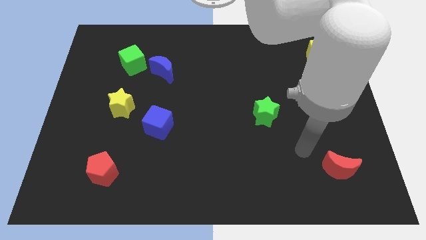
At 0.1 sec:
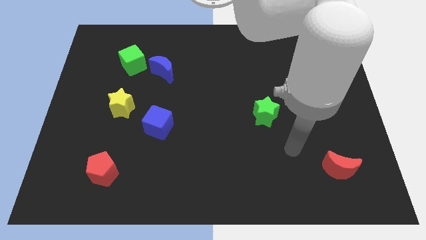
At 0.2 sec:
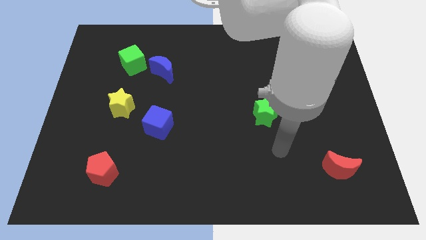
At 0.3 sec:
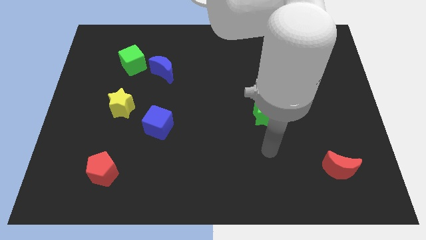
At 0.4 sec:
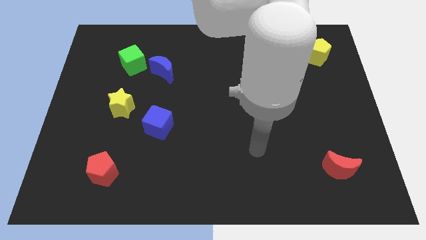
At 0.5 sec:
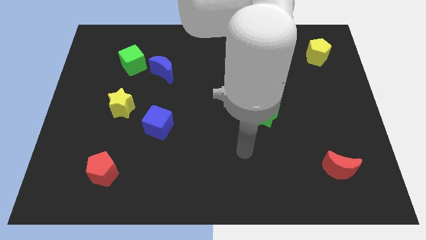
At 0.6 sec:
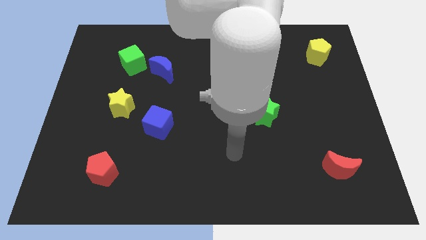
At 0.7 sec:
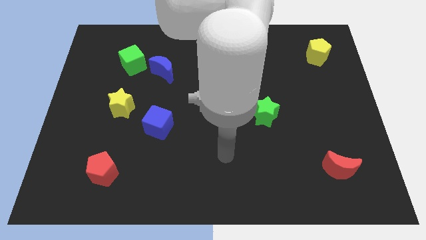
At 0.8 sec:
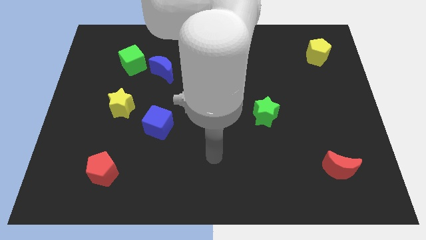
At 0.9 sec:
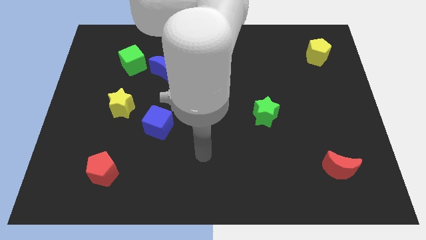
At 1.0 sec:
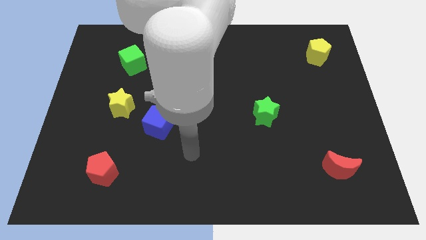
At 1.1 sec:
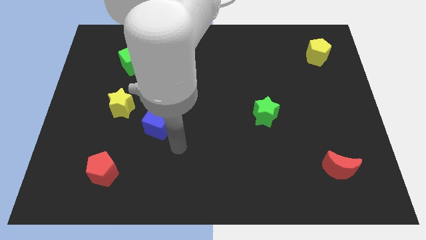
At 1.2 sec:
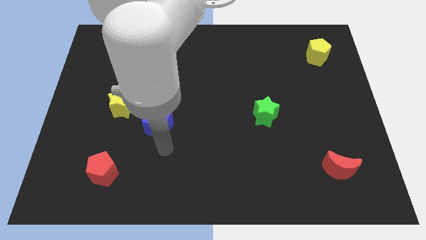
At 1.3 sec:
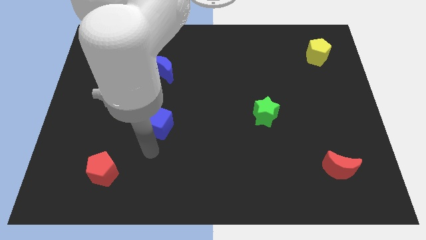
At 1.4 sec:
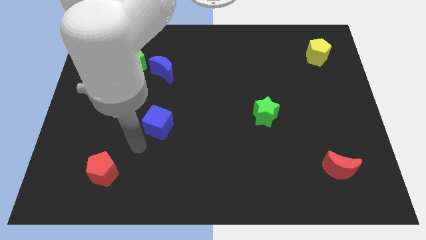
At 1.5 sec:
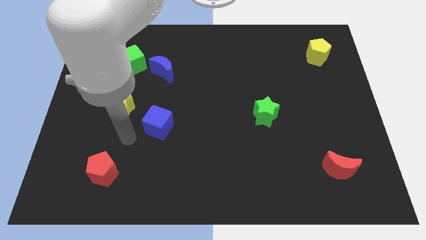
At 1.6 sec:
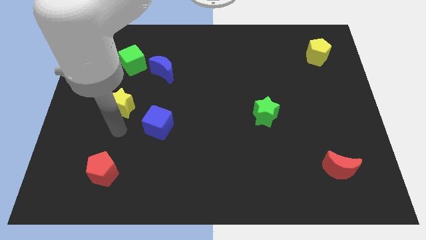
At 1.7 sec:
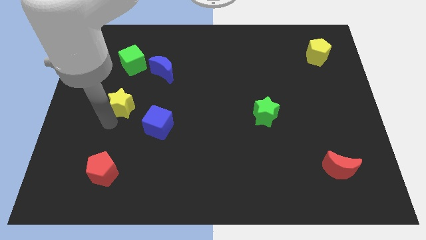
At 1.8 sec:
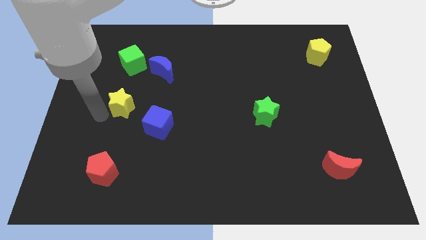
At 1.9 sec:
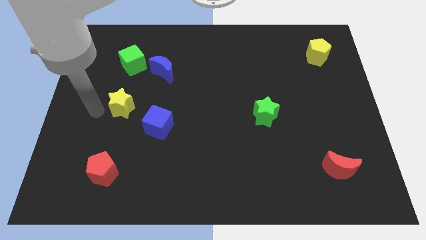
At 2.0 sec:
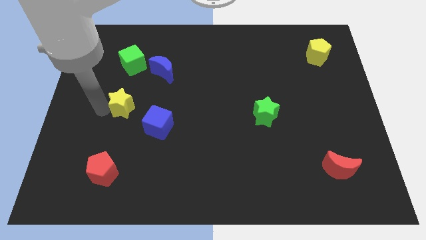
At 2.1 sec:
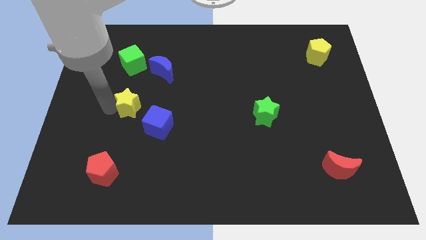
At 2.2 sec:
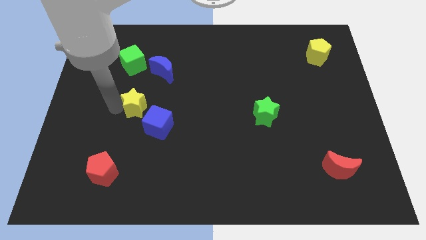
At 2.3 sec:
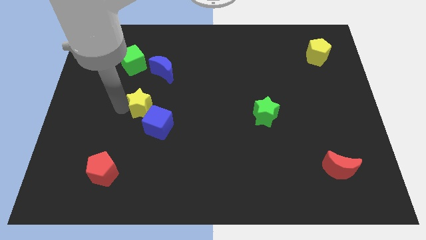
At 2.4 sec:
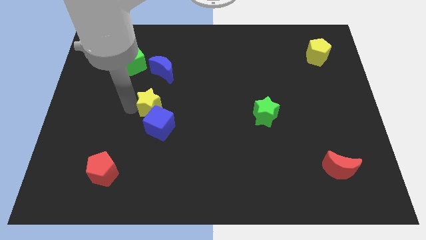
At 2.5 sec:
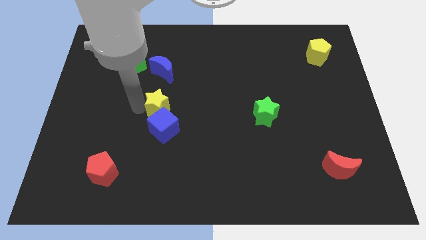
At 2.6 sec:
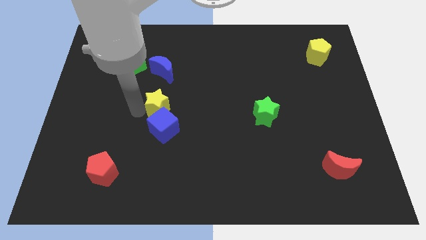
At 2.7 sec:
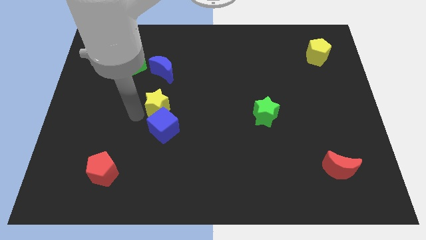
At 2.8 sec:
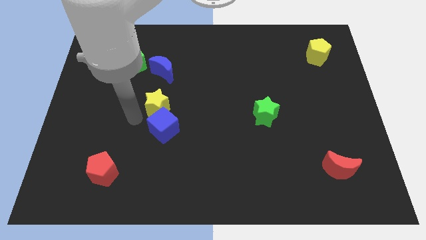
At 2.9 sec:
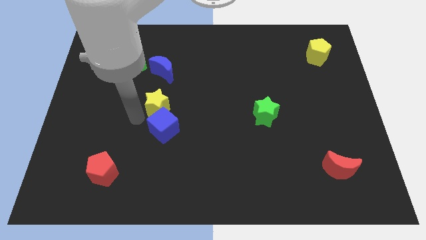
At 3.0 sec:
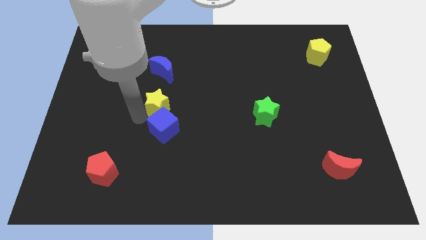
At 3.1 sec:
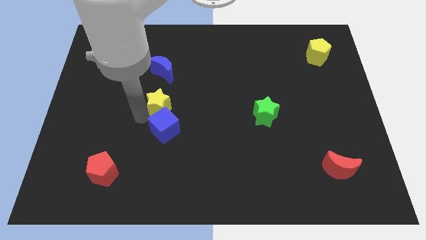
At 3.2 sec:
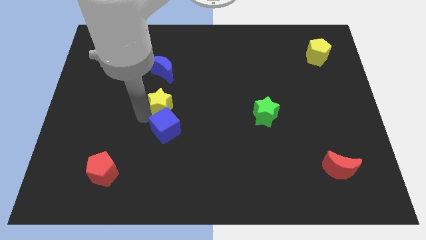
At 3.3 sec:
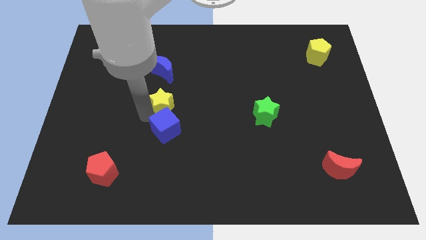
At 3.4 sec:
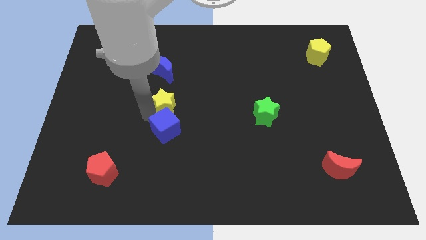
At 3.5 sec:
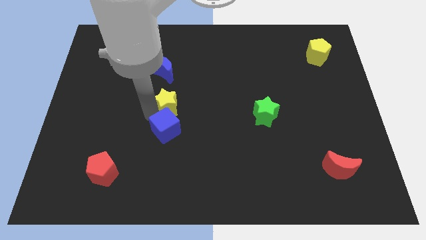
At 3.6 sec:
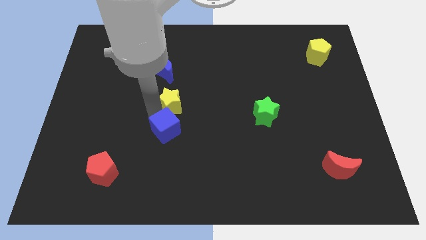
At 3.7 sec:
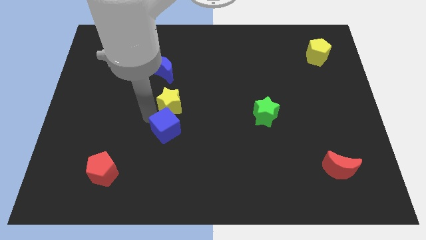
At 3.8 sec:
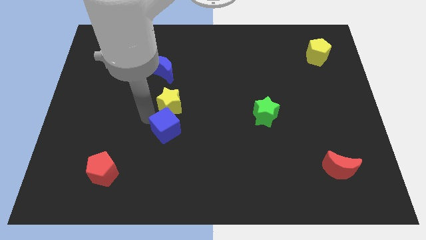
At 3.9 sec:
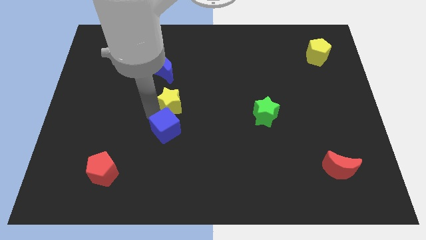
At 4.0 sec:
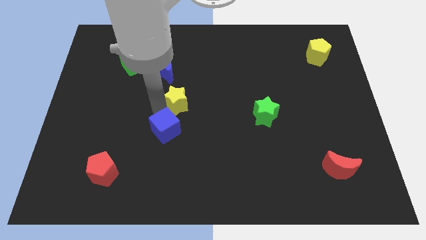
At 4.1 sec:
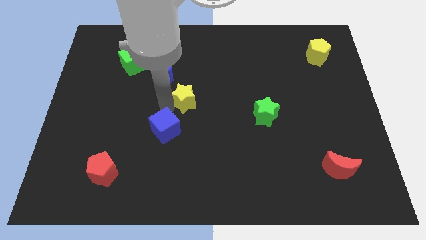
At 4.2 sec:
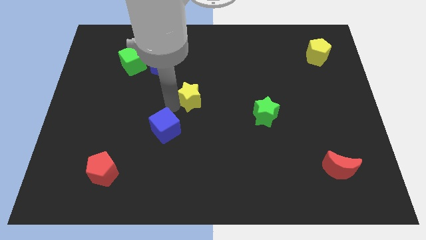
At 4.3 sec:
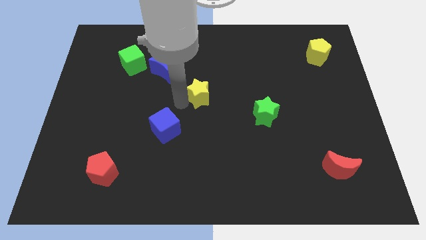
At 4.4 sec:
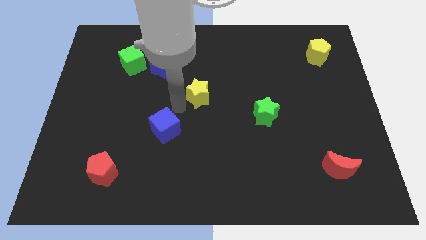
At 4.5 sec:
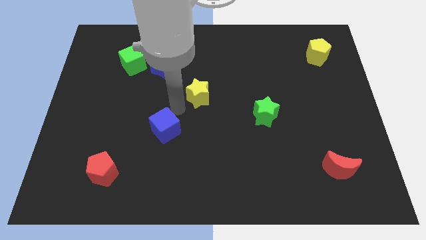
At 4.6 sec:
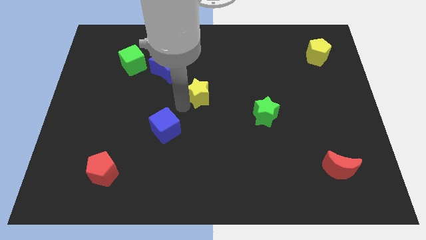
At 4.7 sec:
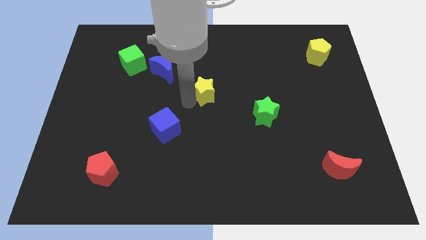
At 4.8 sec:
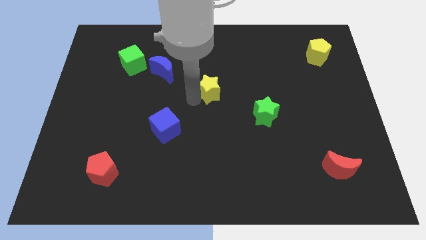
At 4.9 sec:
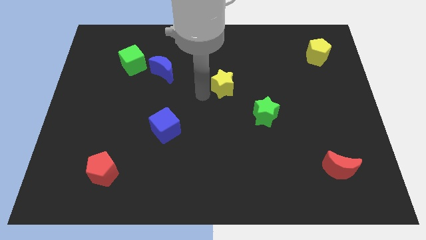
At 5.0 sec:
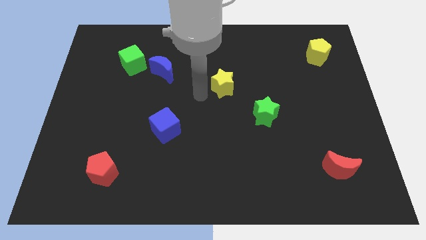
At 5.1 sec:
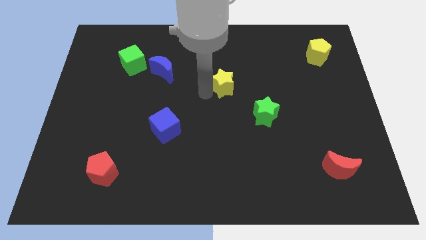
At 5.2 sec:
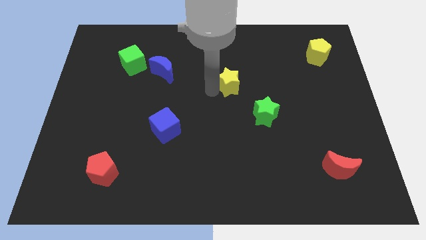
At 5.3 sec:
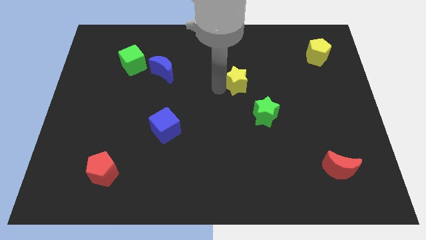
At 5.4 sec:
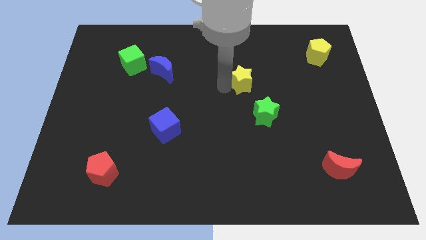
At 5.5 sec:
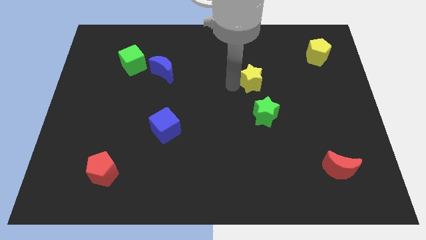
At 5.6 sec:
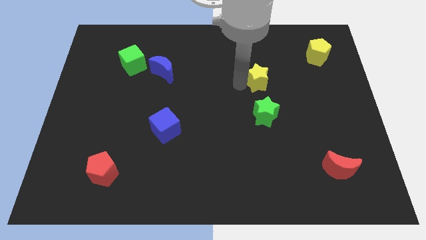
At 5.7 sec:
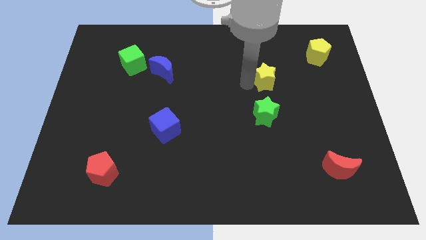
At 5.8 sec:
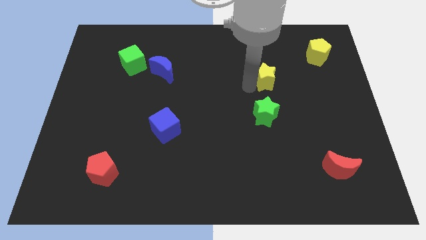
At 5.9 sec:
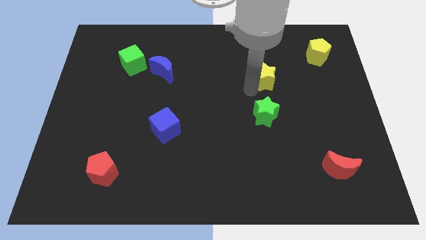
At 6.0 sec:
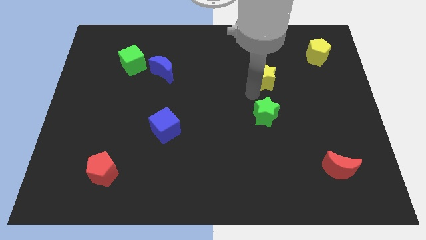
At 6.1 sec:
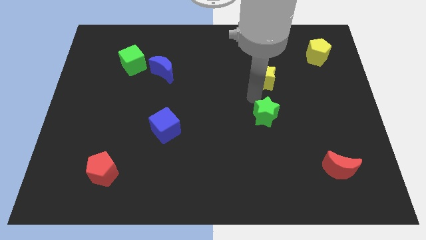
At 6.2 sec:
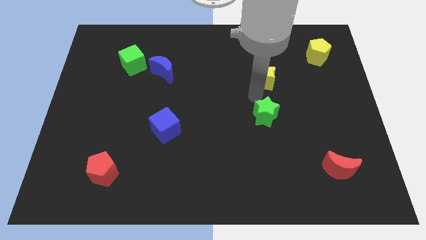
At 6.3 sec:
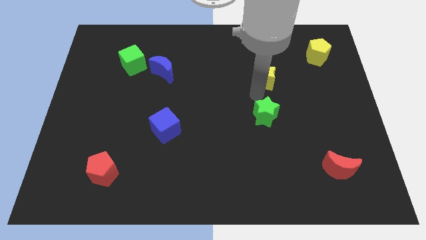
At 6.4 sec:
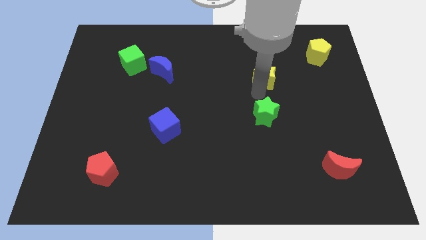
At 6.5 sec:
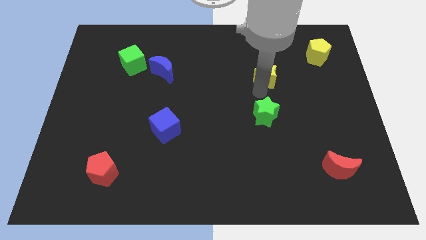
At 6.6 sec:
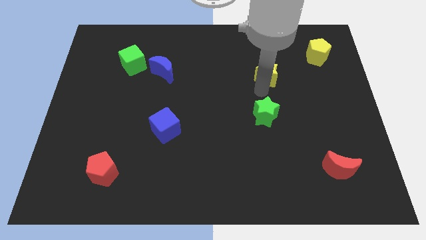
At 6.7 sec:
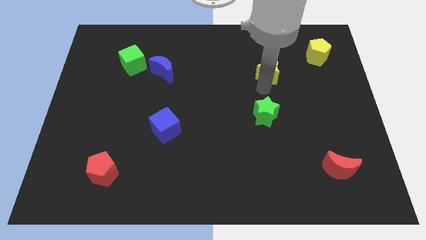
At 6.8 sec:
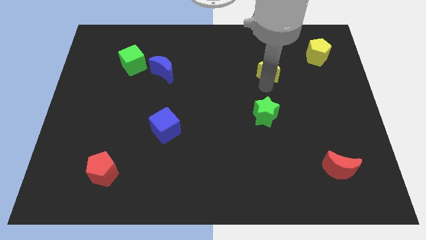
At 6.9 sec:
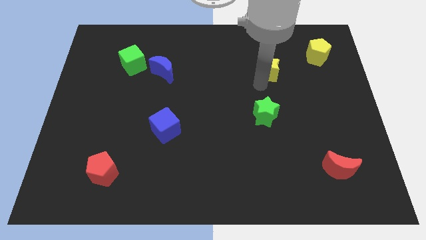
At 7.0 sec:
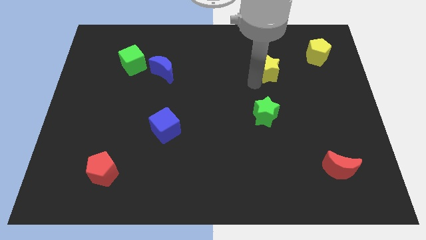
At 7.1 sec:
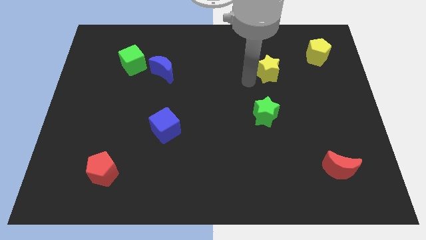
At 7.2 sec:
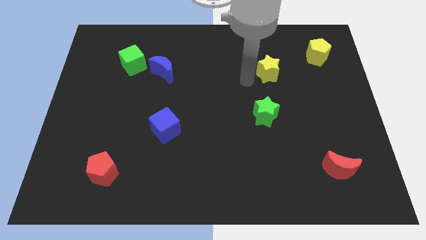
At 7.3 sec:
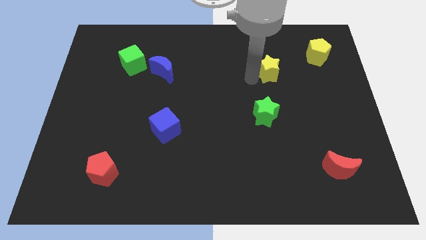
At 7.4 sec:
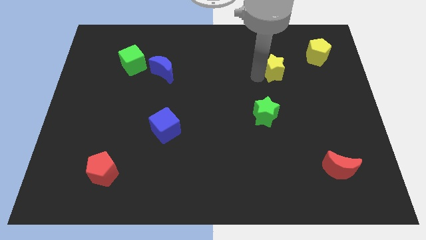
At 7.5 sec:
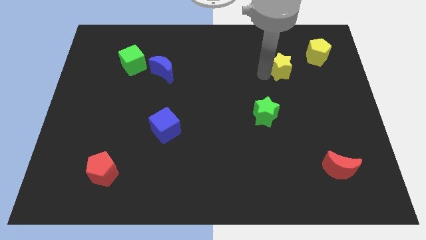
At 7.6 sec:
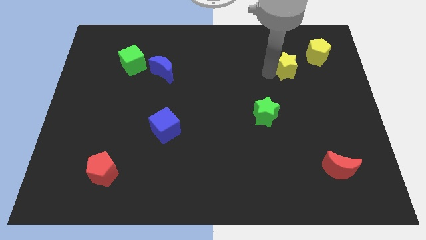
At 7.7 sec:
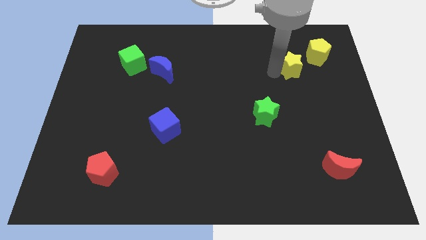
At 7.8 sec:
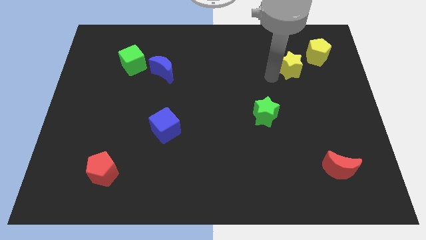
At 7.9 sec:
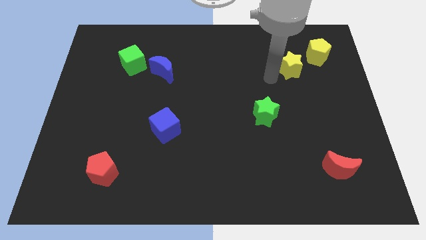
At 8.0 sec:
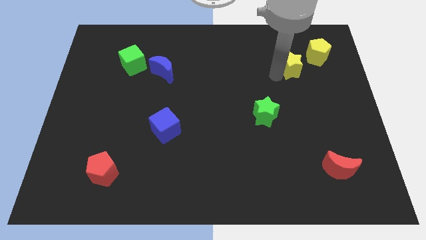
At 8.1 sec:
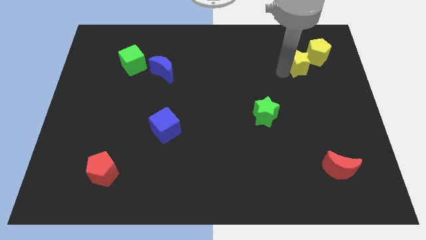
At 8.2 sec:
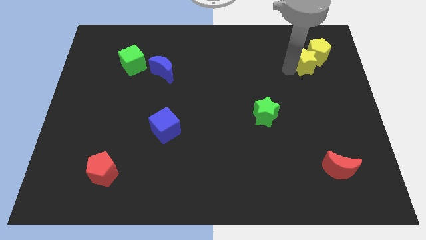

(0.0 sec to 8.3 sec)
slide the yellow star to the yellow pentagon

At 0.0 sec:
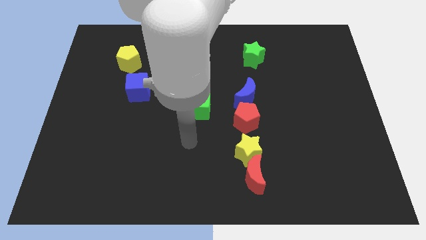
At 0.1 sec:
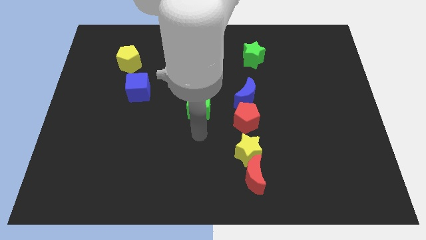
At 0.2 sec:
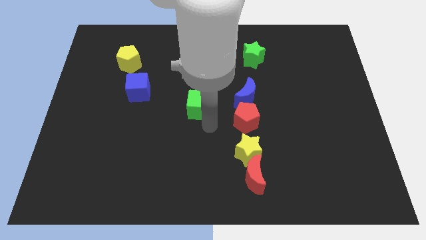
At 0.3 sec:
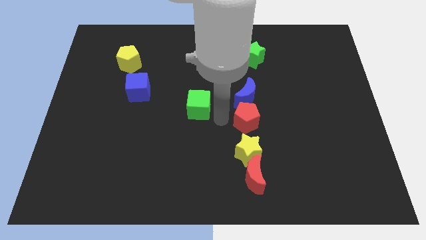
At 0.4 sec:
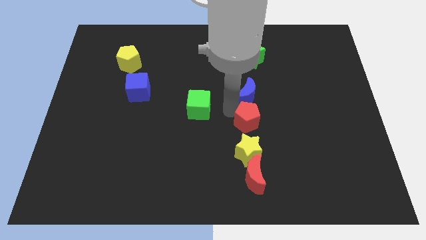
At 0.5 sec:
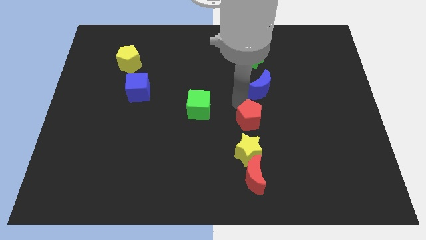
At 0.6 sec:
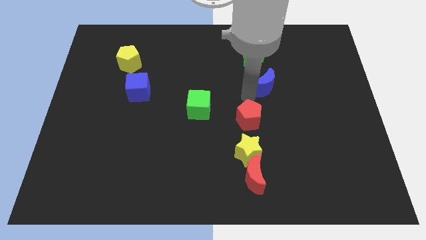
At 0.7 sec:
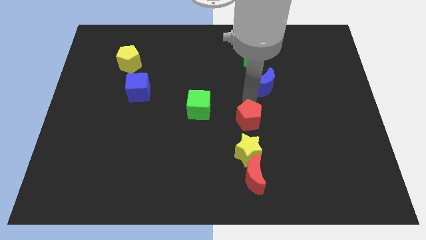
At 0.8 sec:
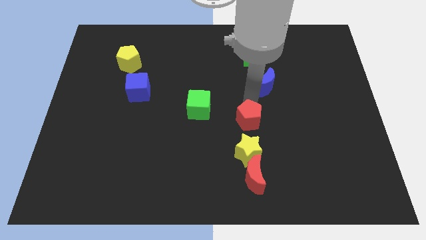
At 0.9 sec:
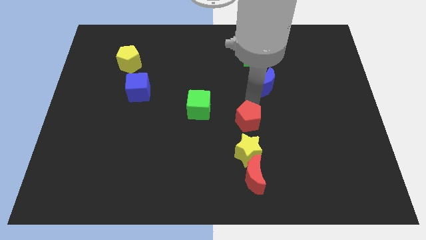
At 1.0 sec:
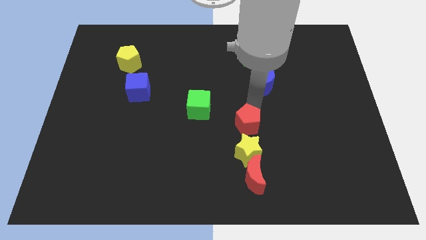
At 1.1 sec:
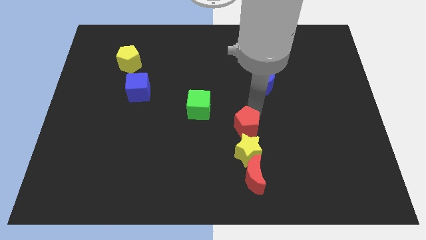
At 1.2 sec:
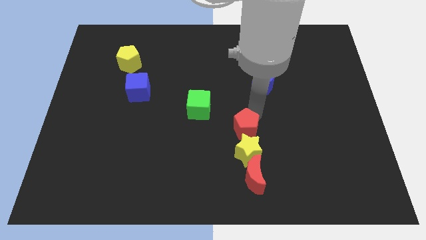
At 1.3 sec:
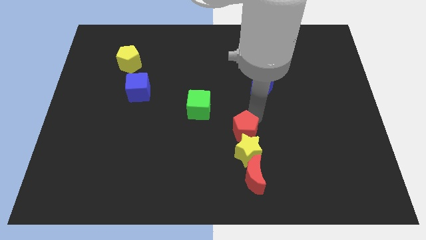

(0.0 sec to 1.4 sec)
move the red pentagon next to the yellow star
